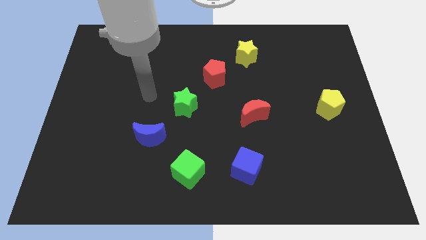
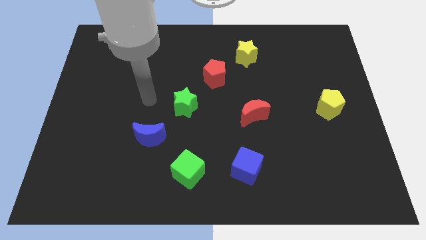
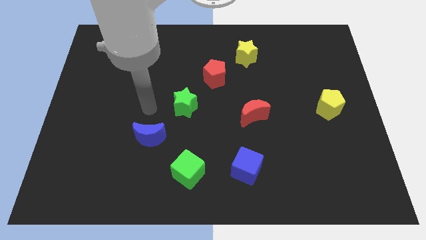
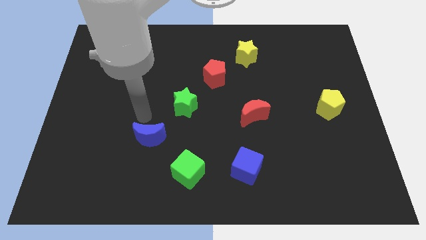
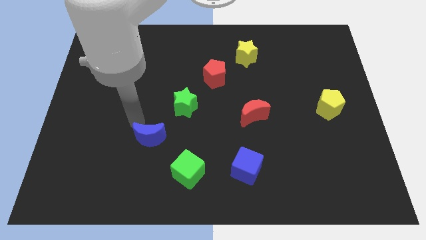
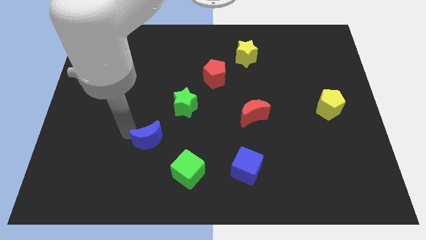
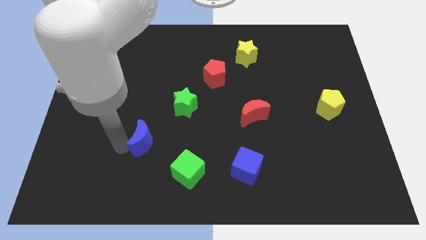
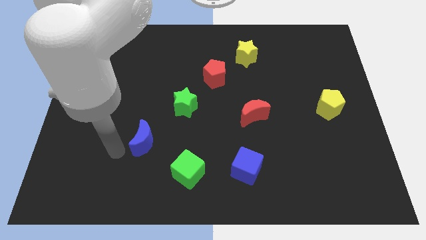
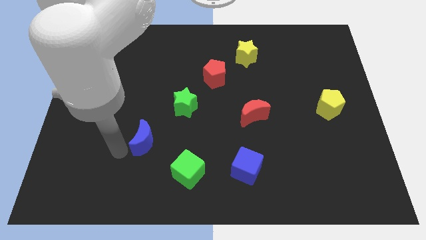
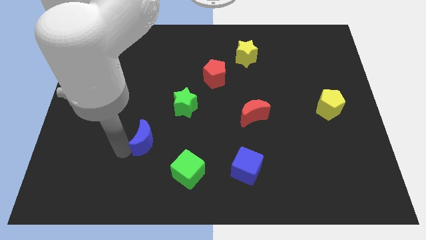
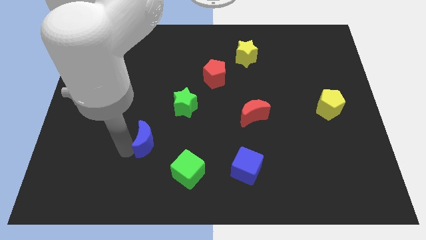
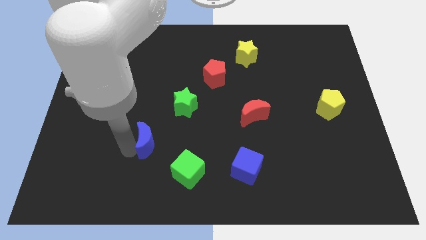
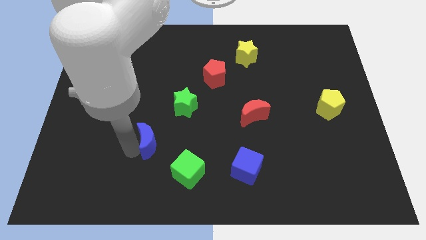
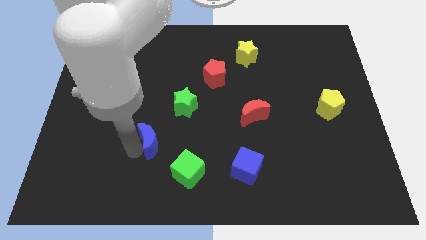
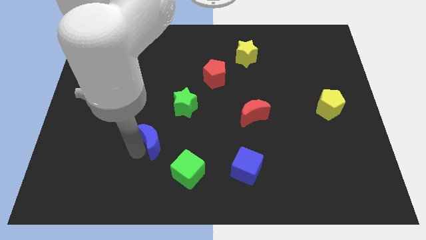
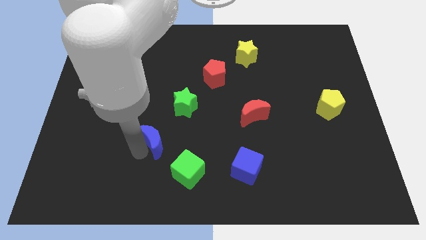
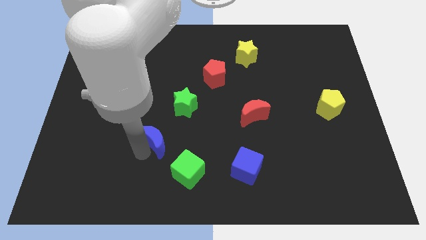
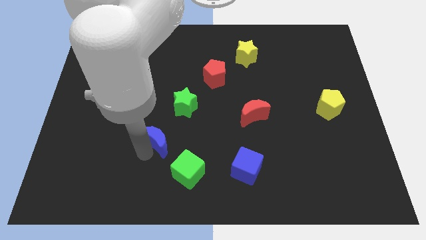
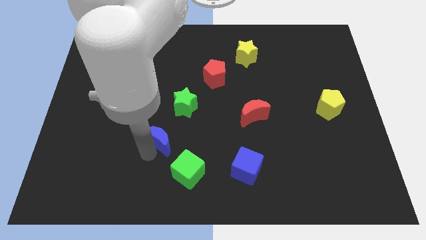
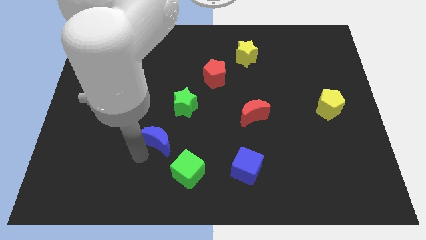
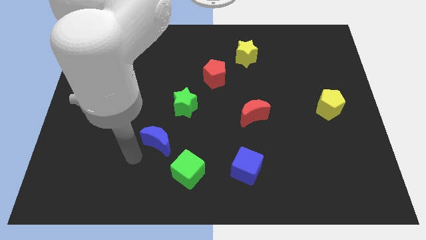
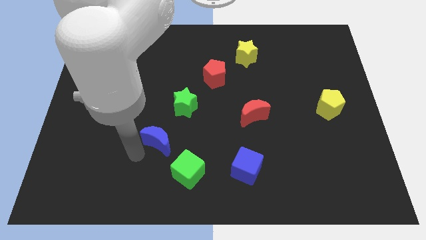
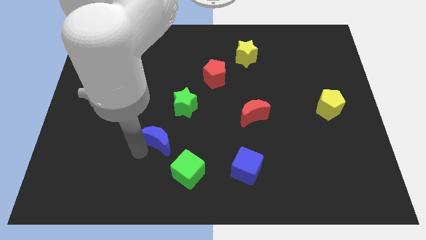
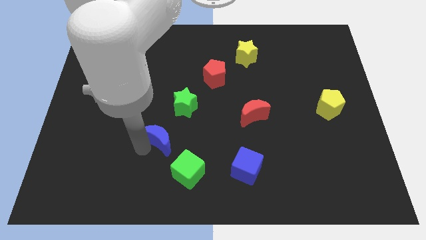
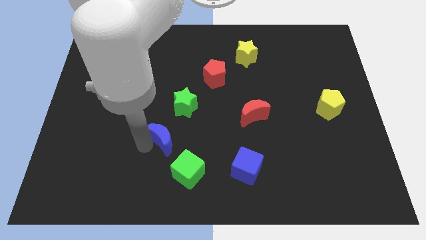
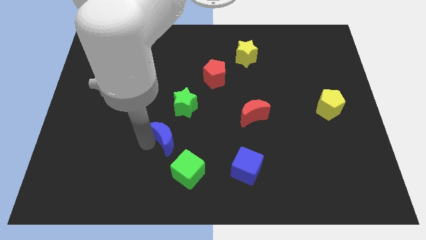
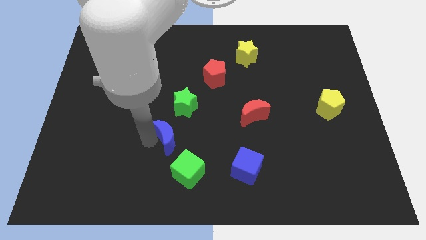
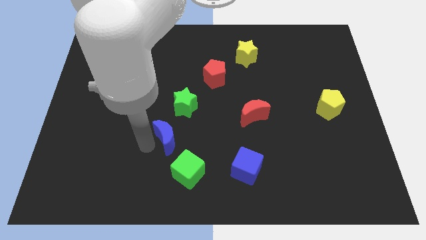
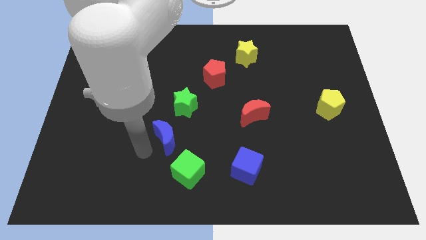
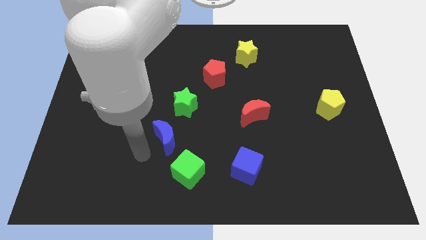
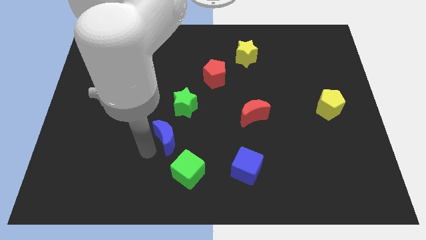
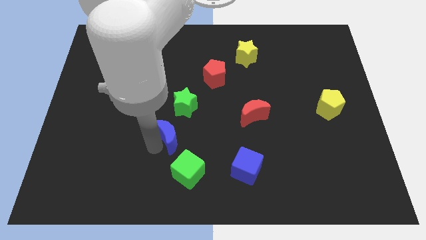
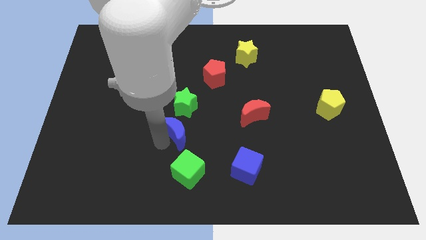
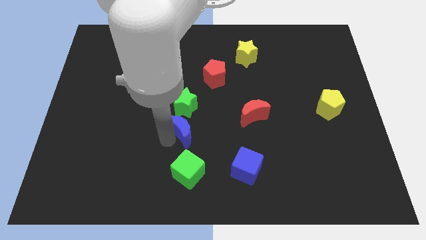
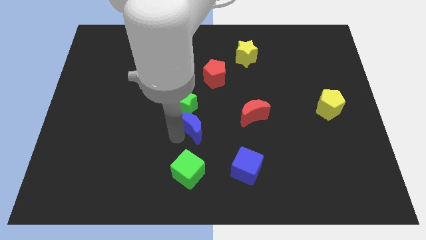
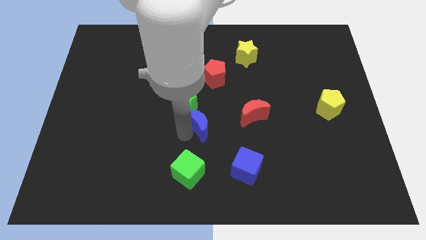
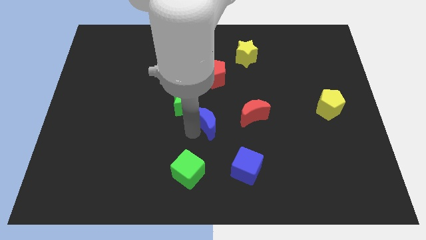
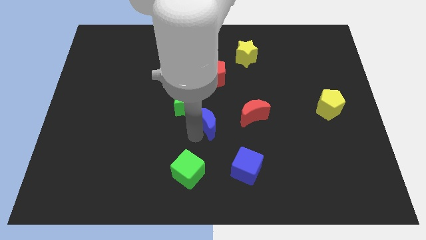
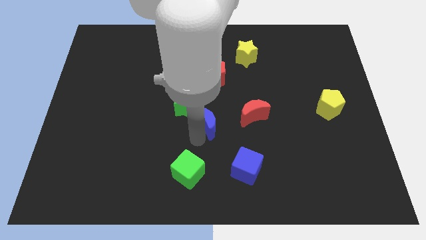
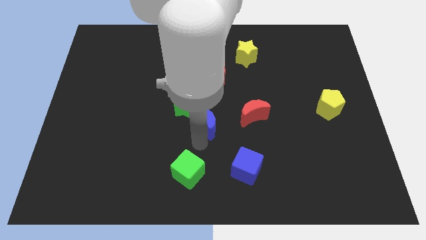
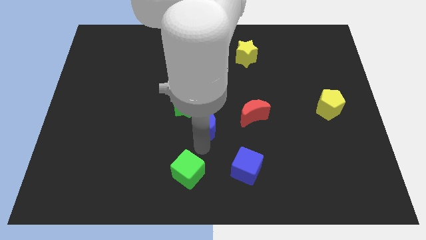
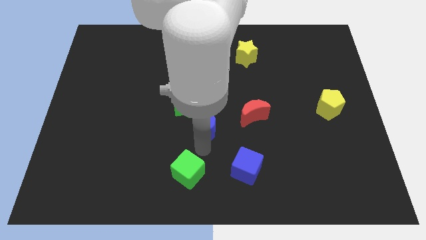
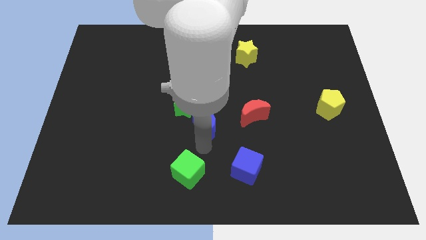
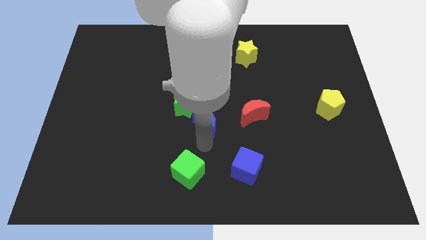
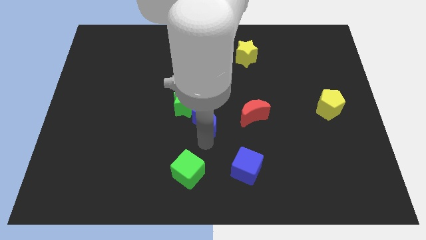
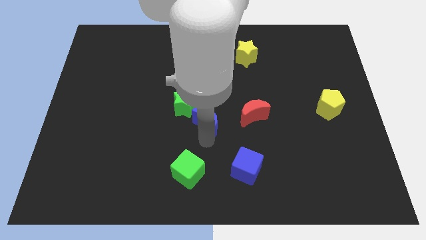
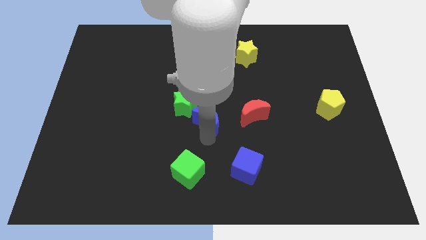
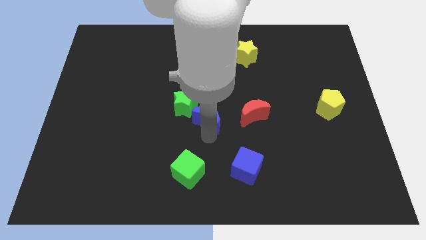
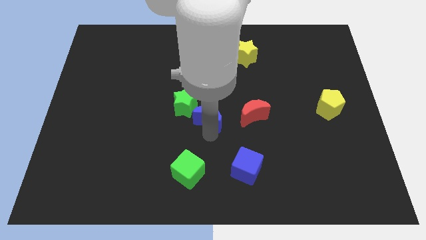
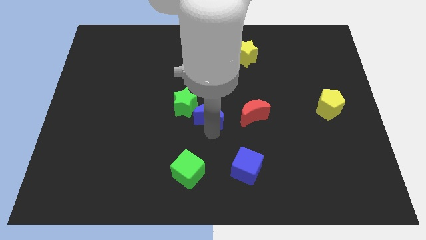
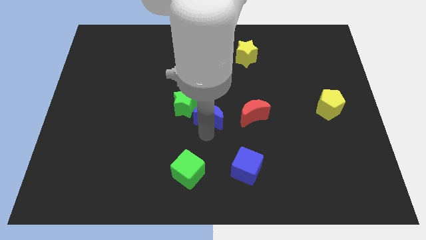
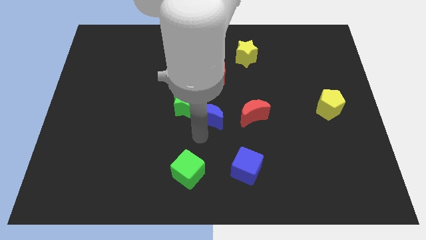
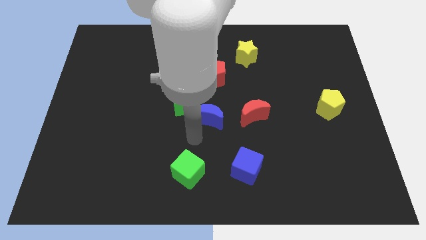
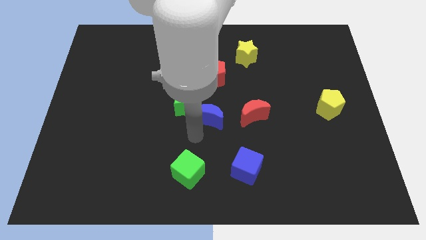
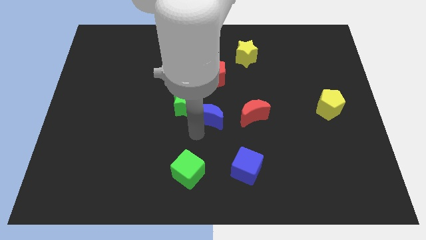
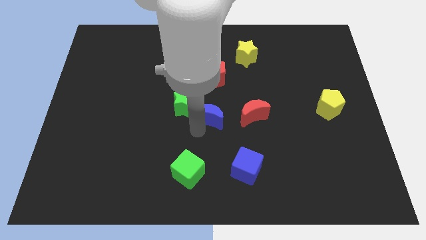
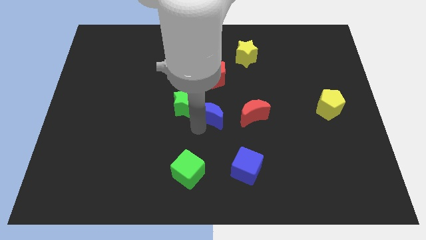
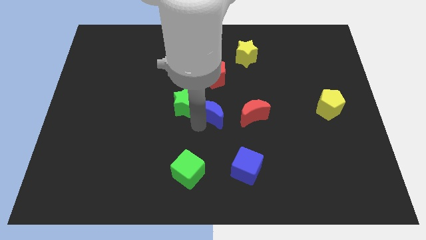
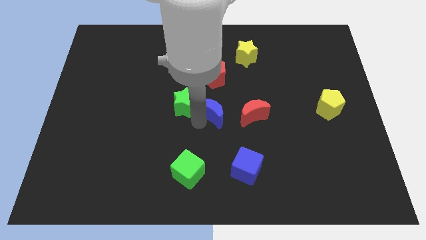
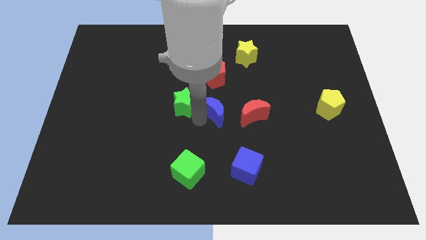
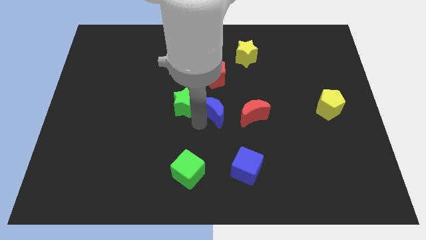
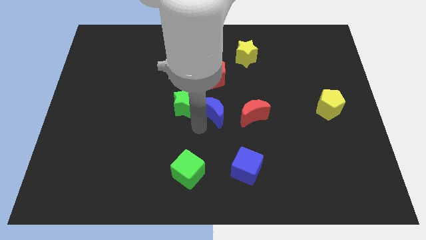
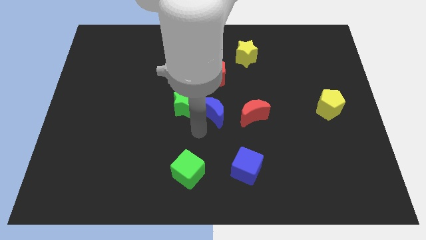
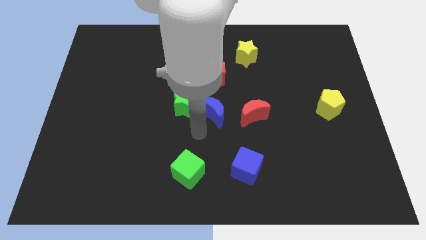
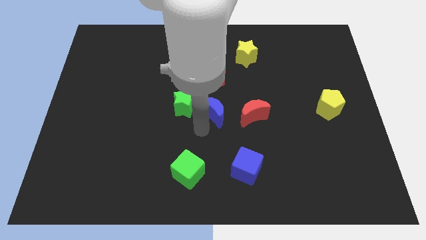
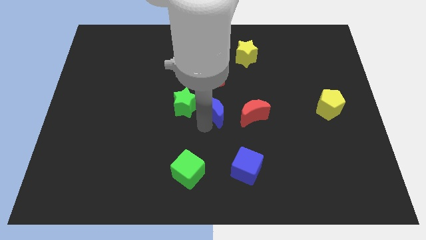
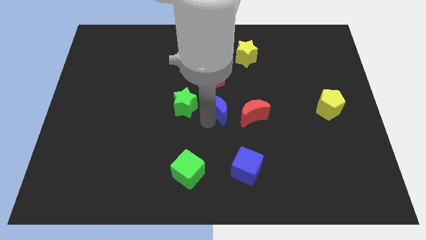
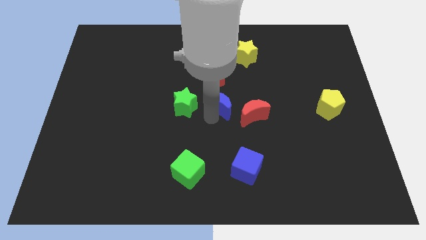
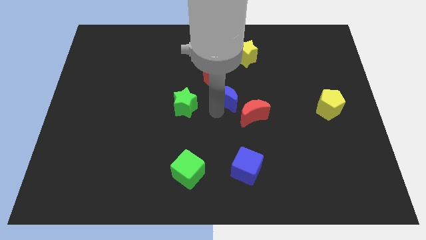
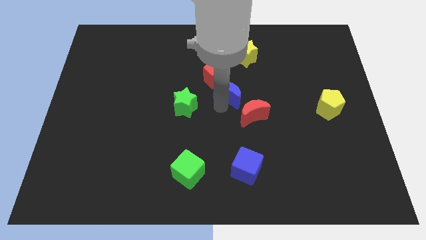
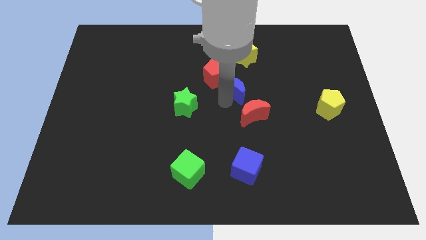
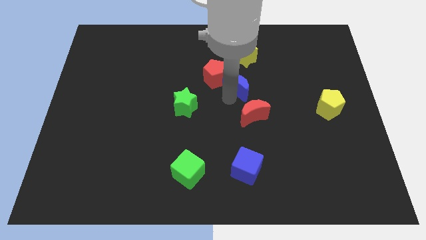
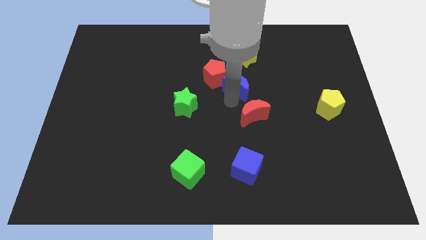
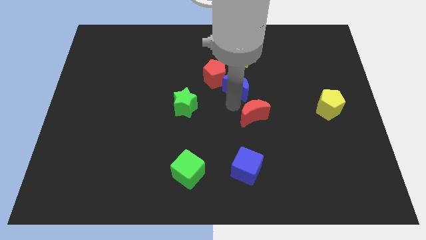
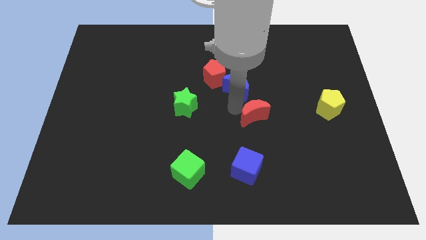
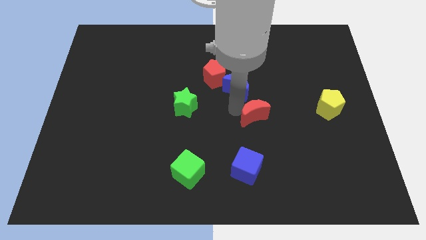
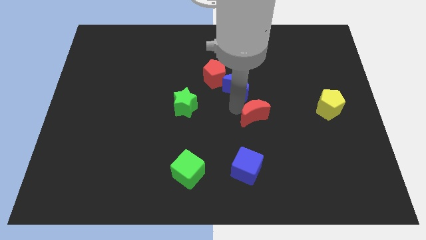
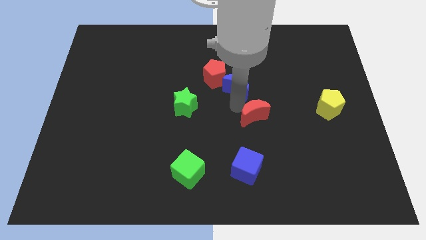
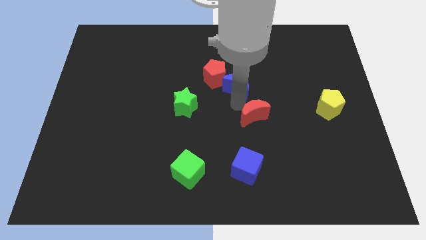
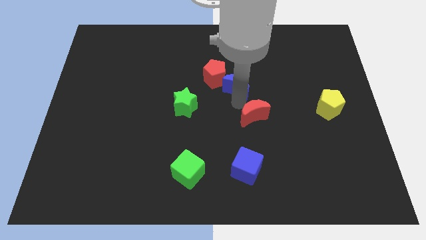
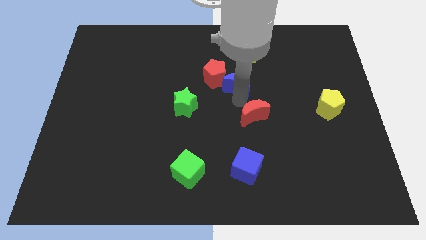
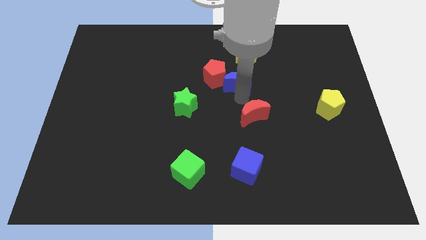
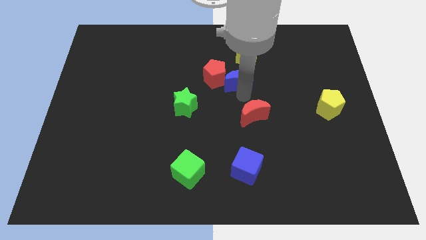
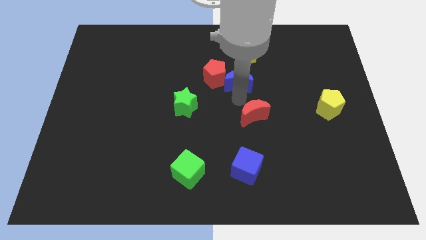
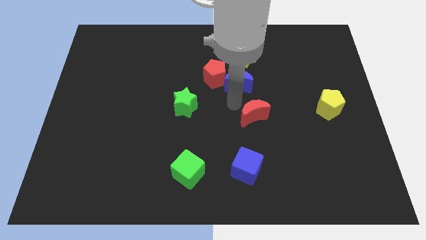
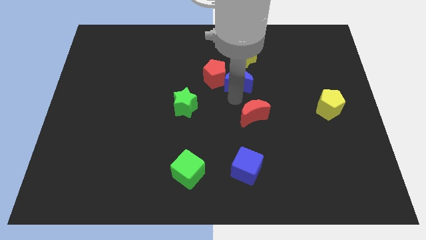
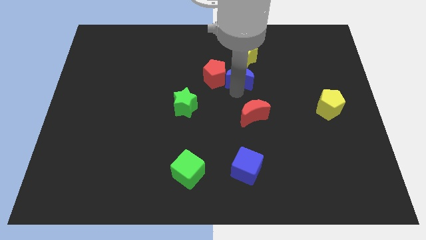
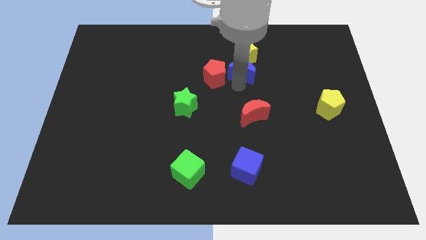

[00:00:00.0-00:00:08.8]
move the blue moon towards the yellow star
